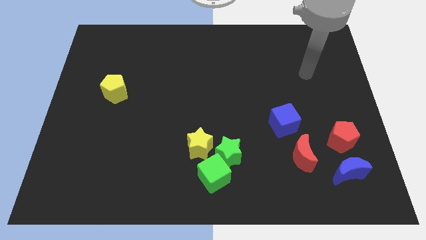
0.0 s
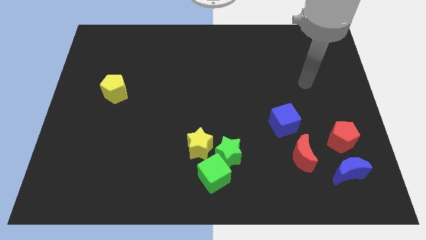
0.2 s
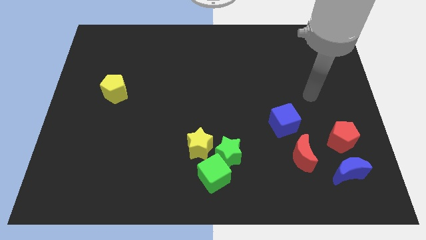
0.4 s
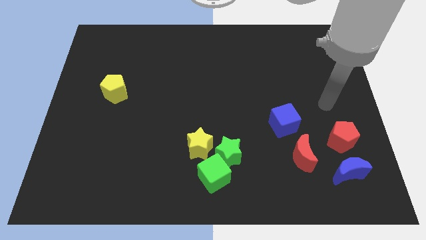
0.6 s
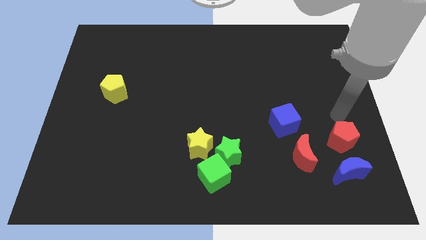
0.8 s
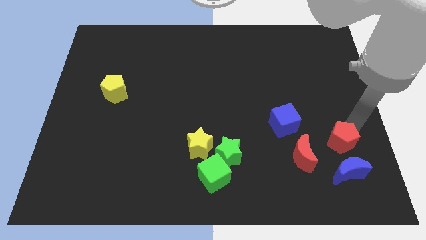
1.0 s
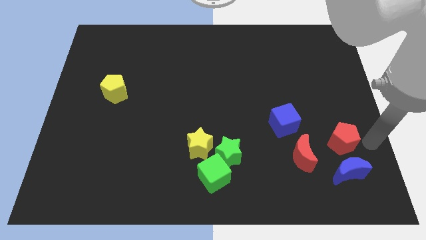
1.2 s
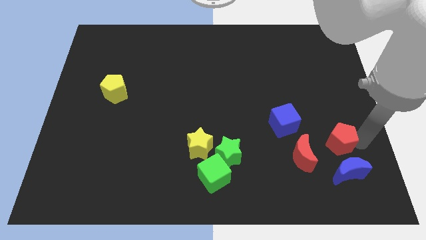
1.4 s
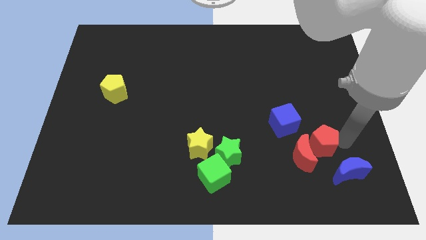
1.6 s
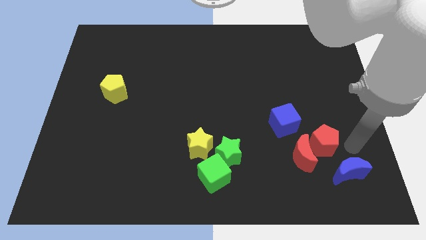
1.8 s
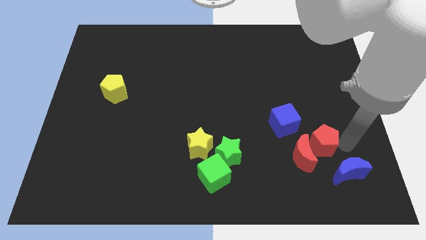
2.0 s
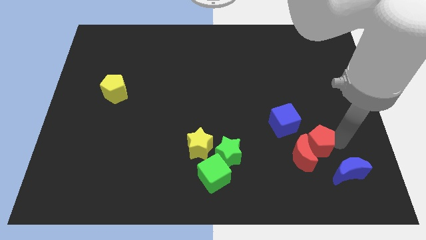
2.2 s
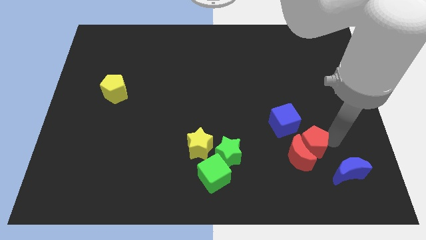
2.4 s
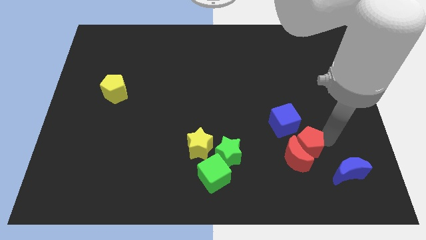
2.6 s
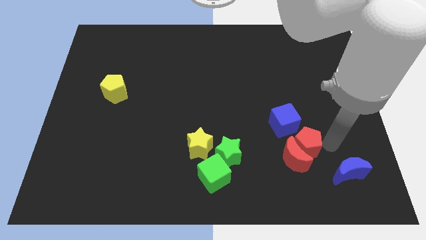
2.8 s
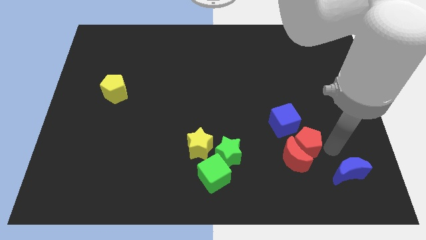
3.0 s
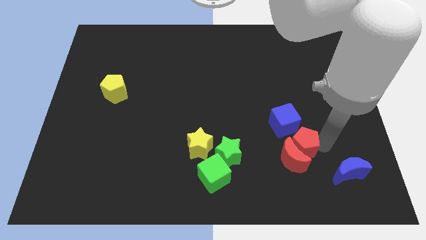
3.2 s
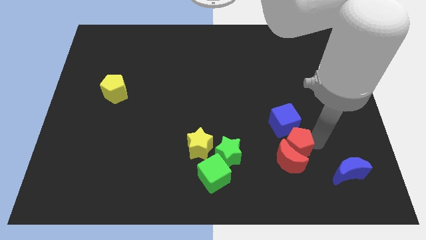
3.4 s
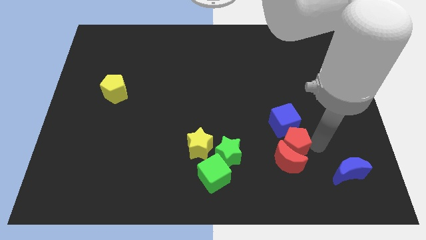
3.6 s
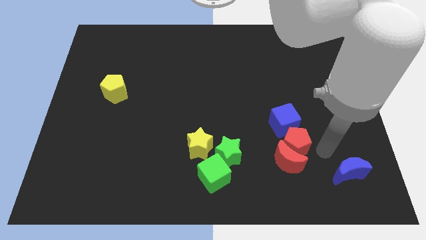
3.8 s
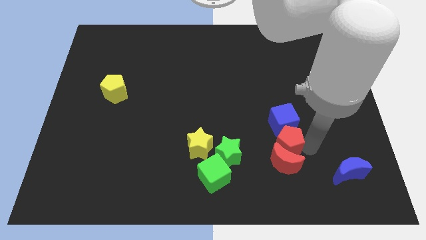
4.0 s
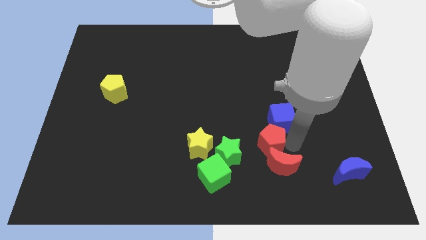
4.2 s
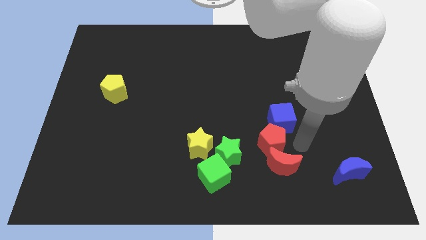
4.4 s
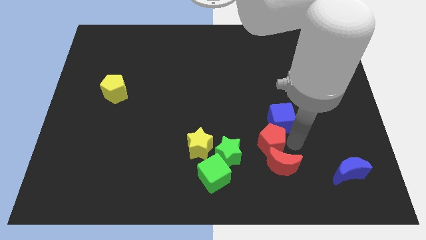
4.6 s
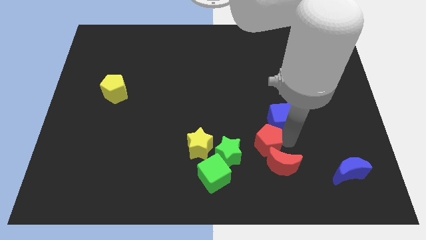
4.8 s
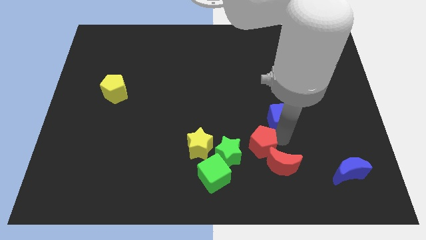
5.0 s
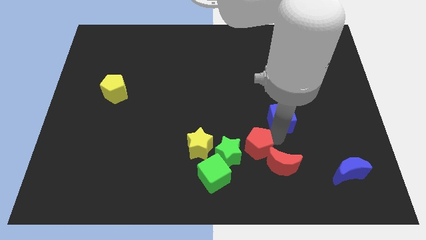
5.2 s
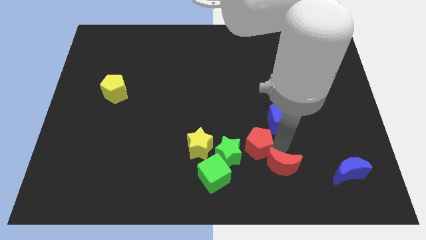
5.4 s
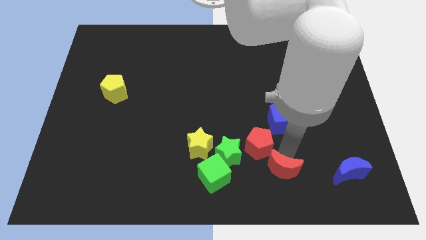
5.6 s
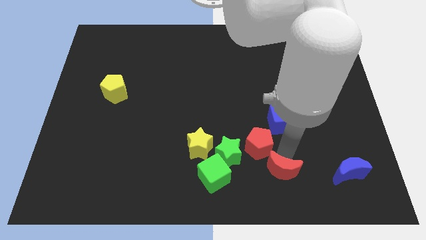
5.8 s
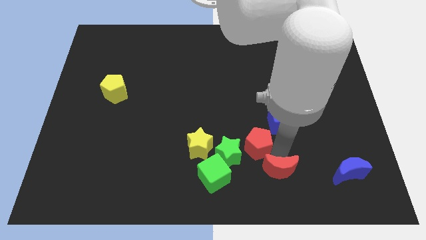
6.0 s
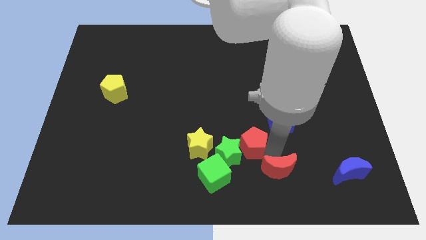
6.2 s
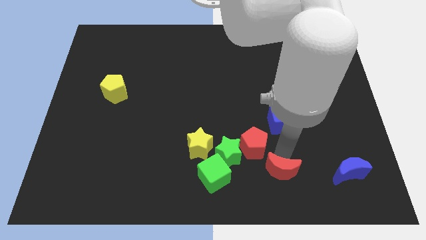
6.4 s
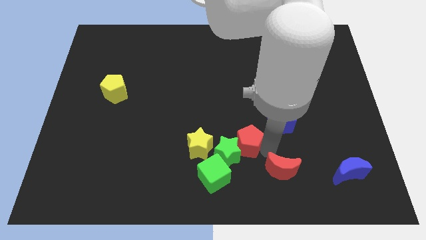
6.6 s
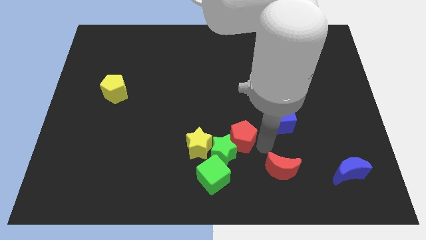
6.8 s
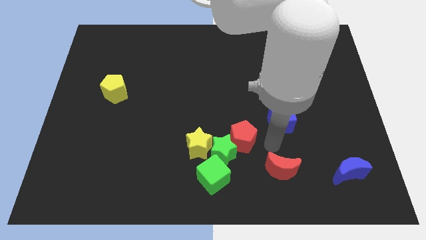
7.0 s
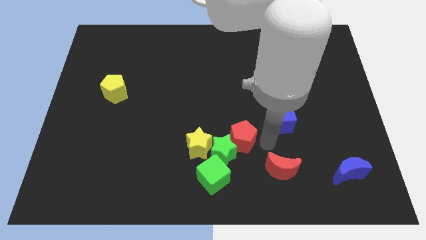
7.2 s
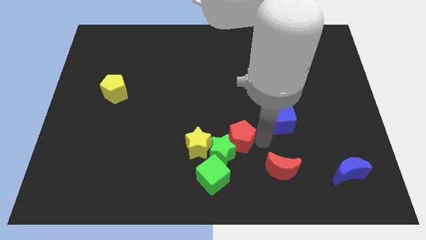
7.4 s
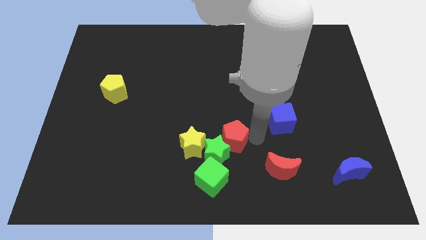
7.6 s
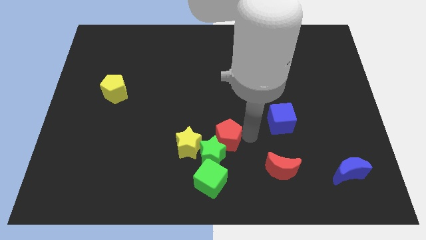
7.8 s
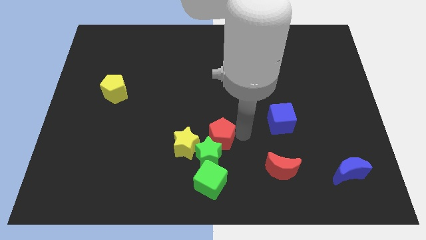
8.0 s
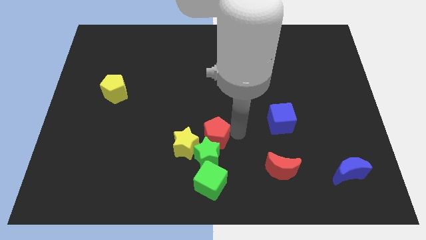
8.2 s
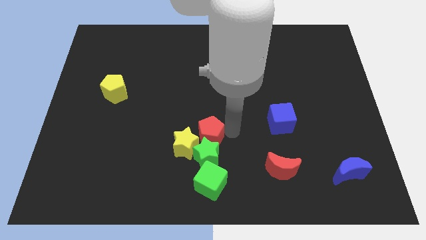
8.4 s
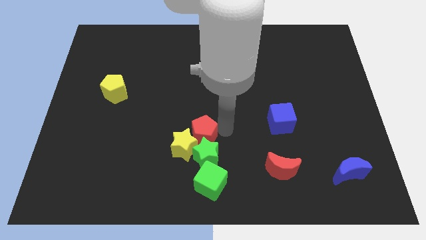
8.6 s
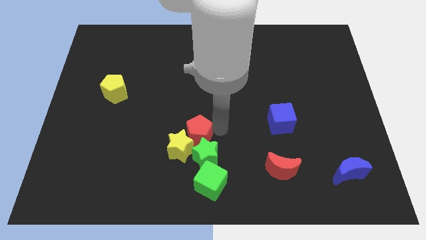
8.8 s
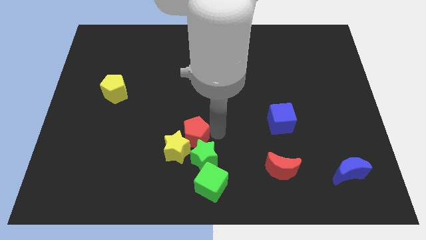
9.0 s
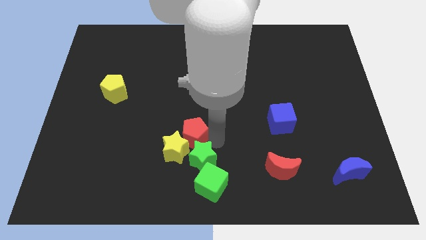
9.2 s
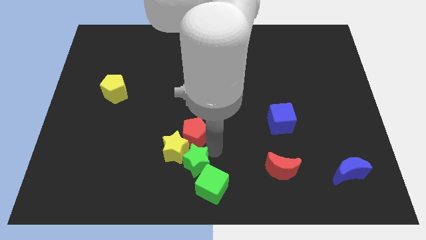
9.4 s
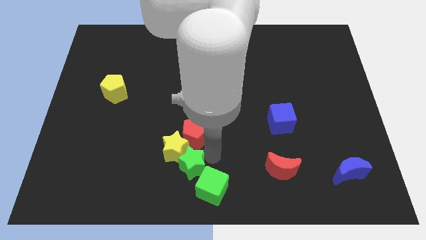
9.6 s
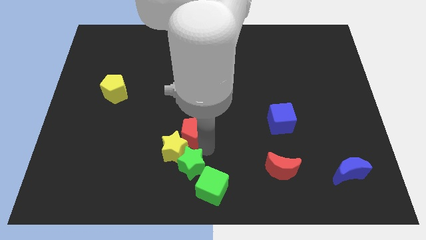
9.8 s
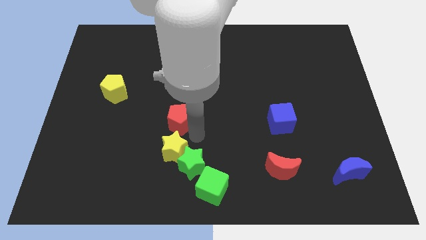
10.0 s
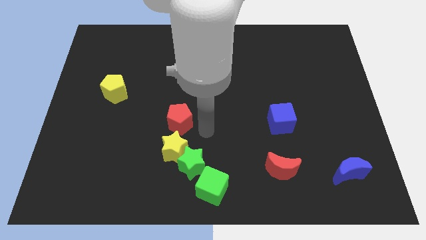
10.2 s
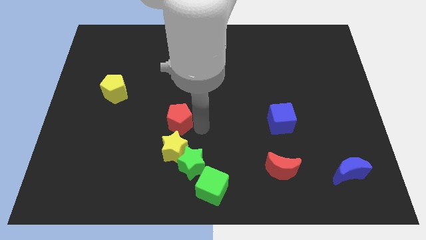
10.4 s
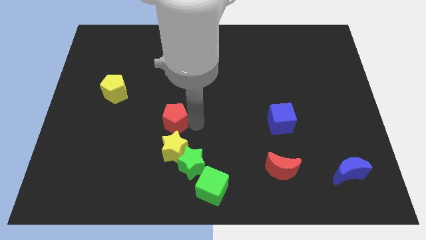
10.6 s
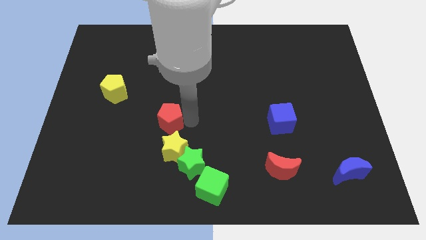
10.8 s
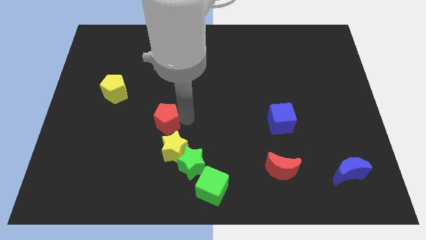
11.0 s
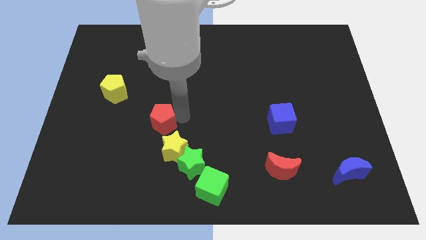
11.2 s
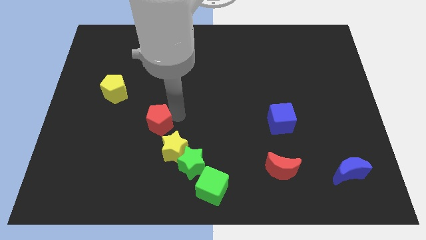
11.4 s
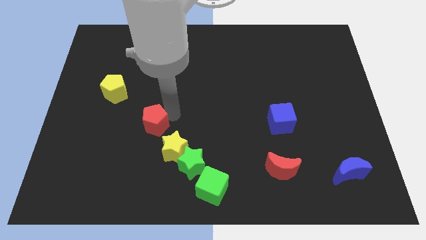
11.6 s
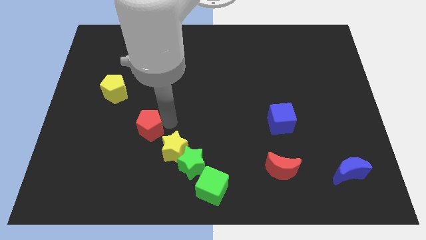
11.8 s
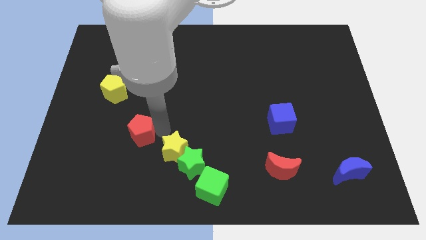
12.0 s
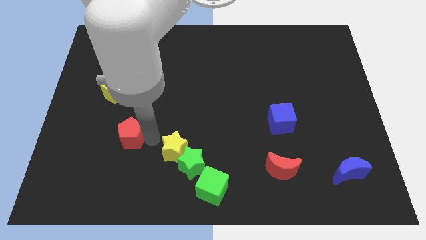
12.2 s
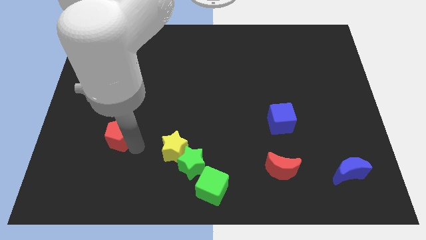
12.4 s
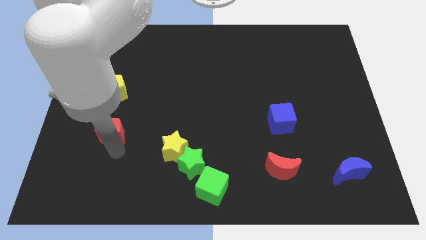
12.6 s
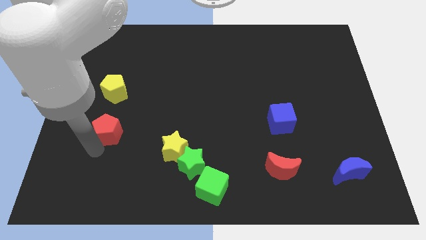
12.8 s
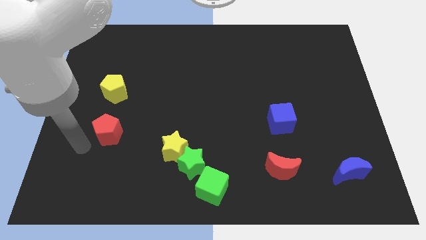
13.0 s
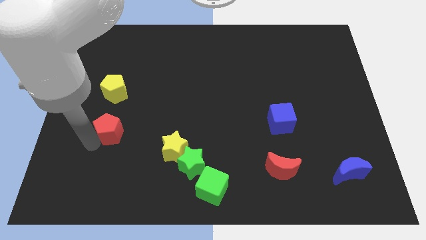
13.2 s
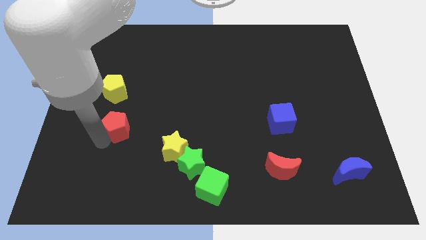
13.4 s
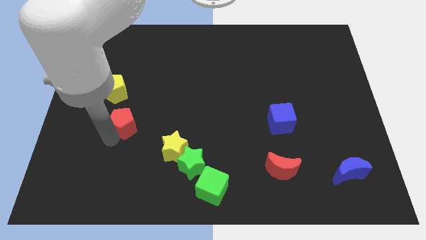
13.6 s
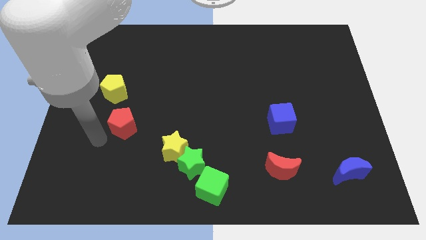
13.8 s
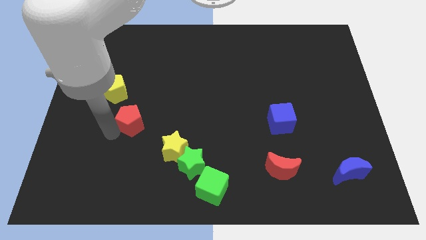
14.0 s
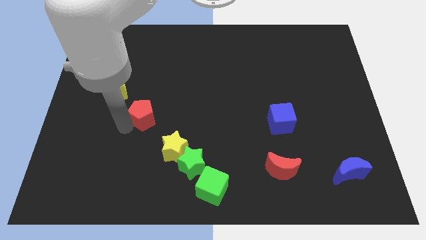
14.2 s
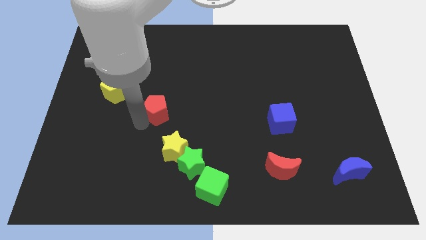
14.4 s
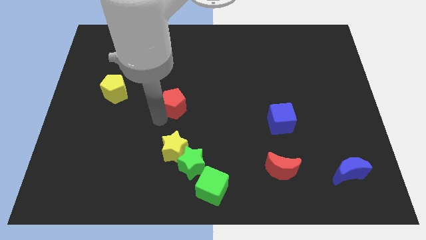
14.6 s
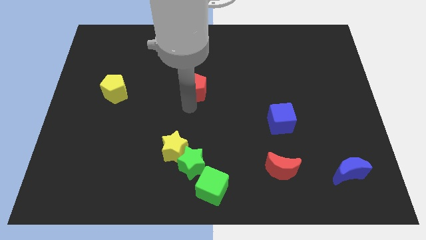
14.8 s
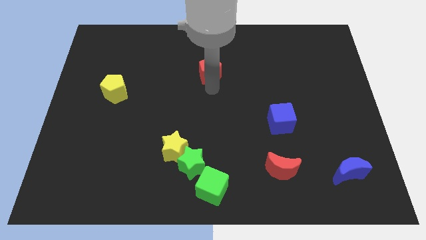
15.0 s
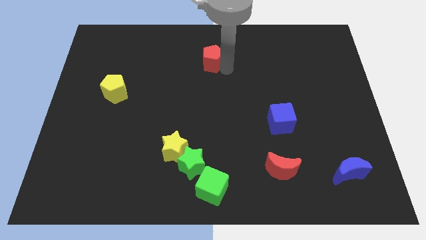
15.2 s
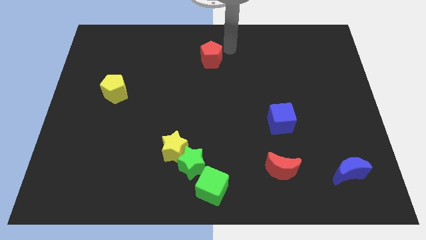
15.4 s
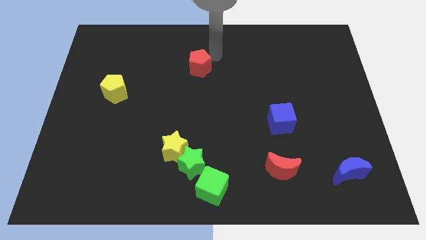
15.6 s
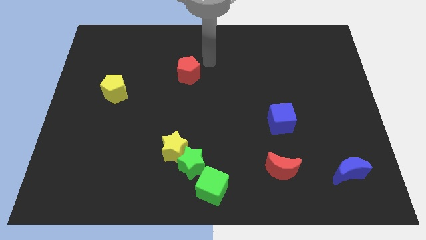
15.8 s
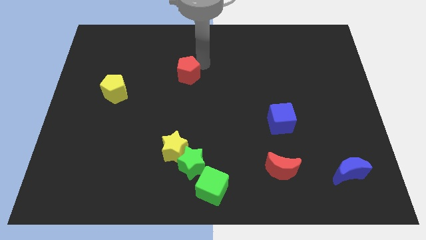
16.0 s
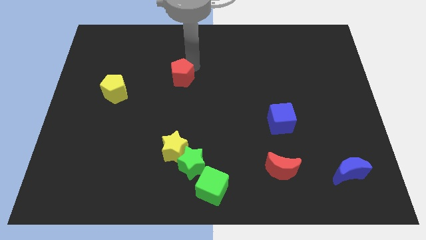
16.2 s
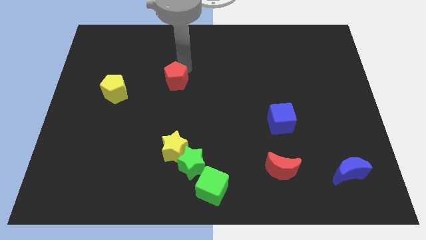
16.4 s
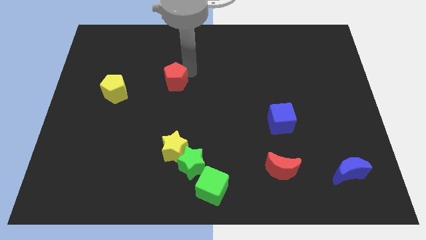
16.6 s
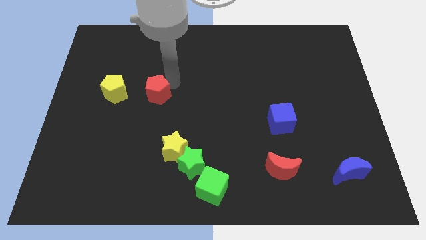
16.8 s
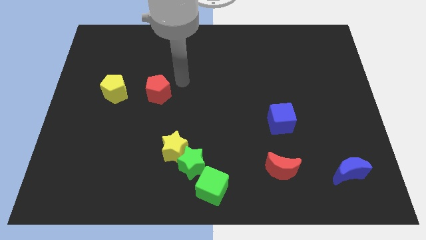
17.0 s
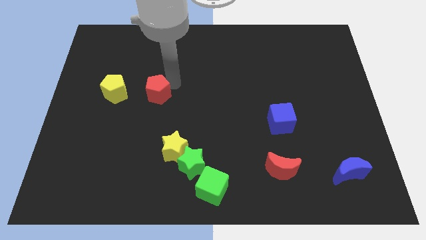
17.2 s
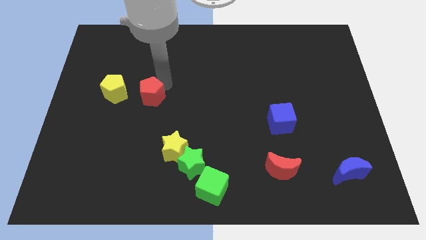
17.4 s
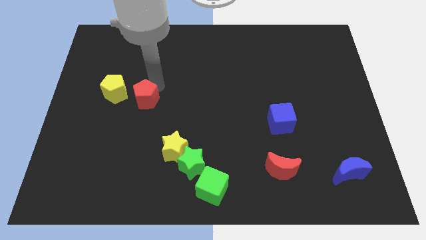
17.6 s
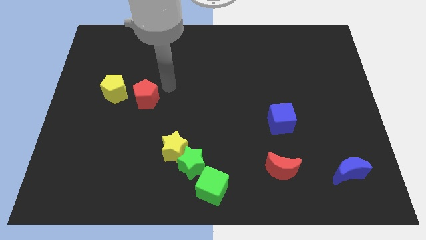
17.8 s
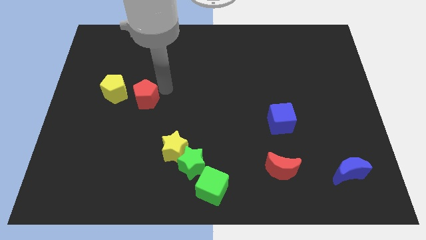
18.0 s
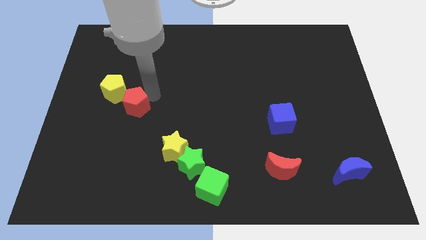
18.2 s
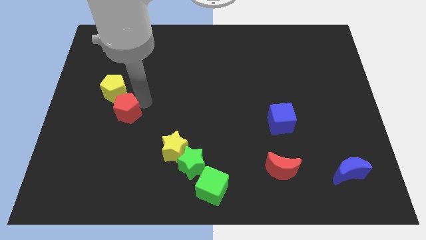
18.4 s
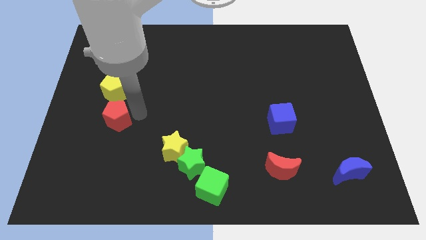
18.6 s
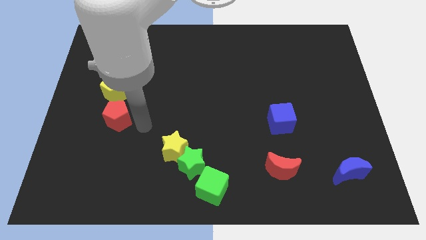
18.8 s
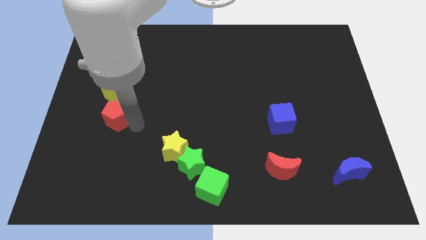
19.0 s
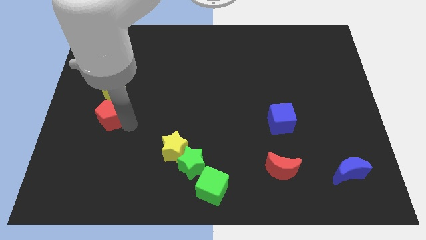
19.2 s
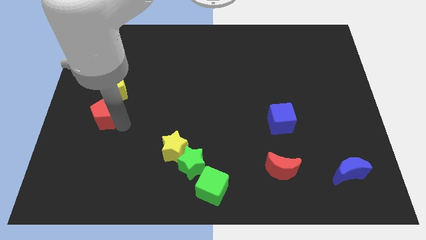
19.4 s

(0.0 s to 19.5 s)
slide the red pentagon diagonally down and to the left of the yellow pentagon
